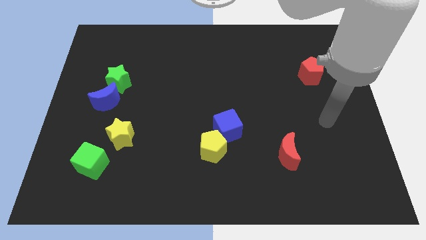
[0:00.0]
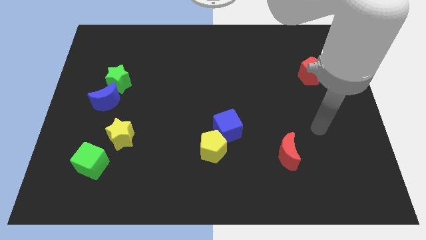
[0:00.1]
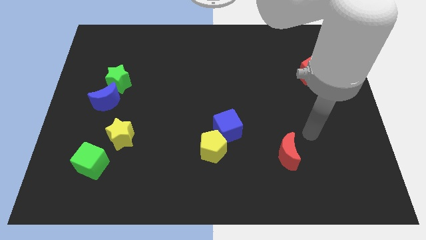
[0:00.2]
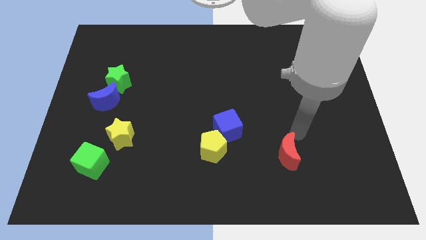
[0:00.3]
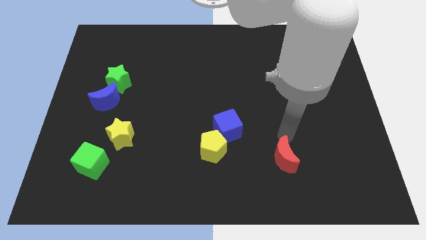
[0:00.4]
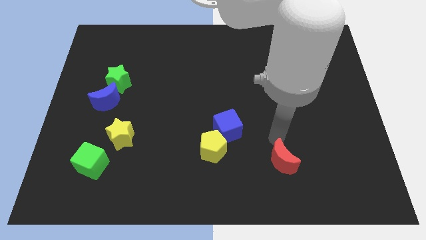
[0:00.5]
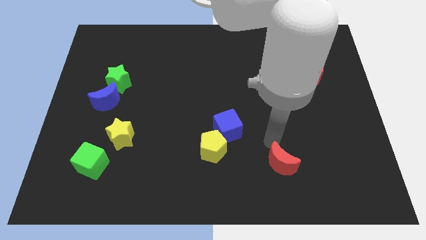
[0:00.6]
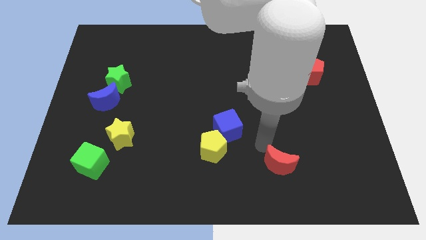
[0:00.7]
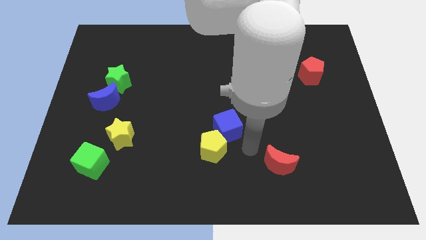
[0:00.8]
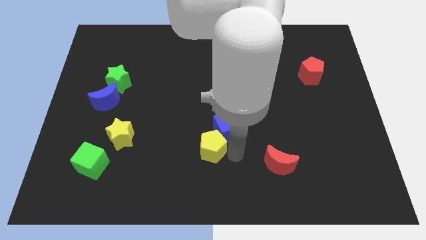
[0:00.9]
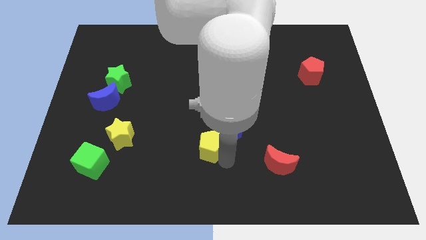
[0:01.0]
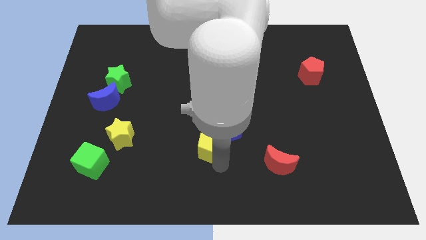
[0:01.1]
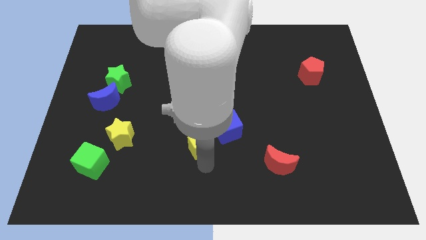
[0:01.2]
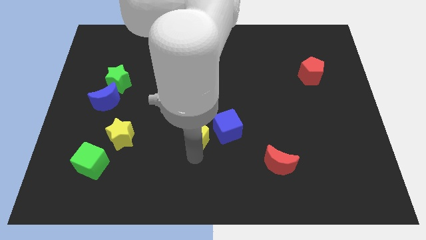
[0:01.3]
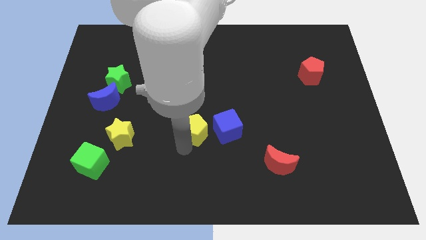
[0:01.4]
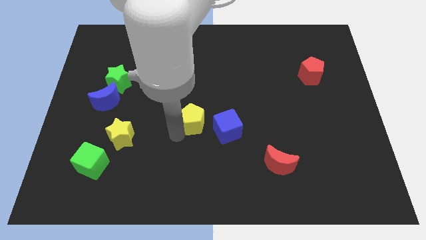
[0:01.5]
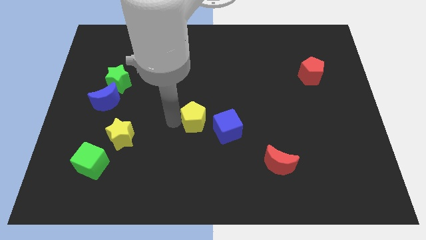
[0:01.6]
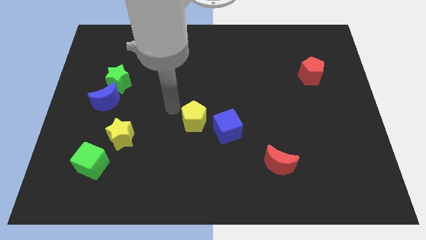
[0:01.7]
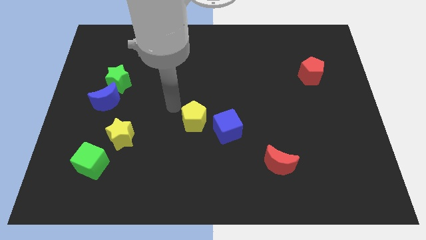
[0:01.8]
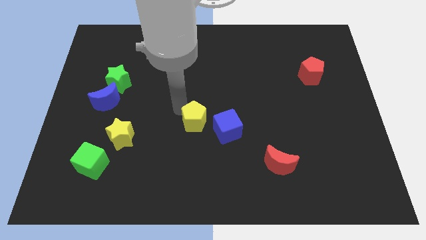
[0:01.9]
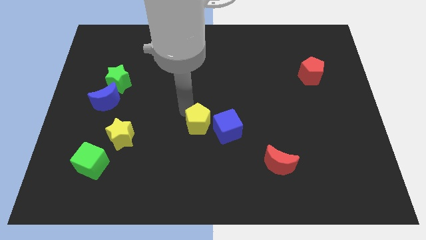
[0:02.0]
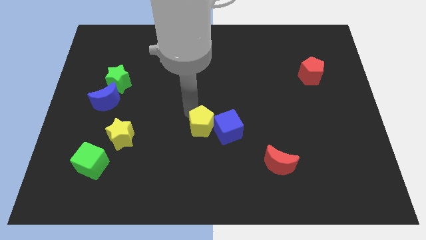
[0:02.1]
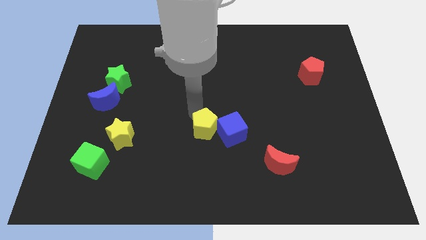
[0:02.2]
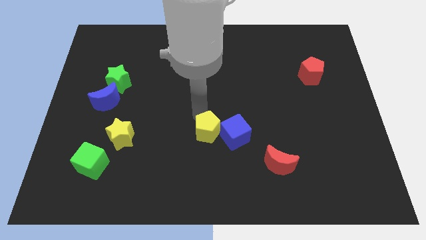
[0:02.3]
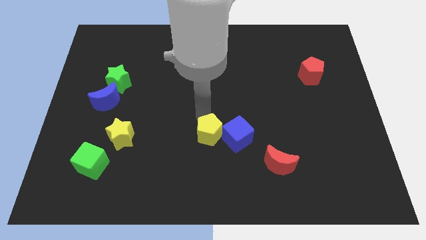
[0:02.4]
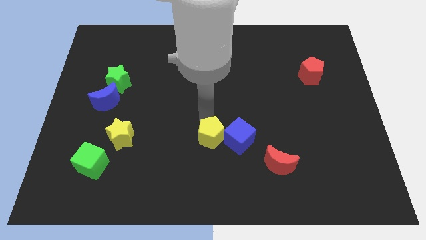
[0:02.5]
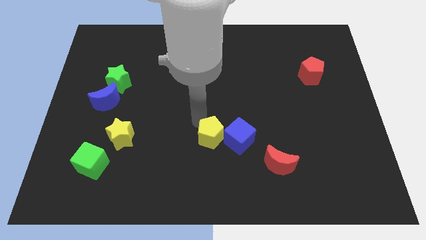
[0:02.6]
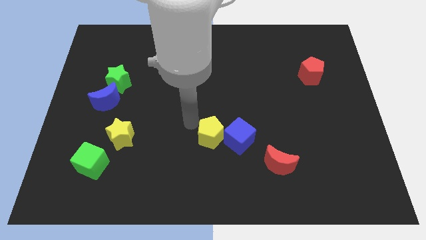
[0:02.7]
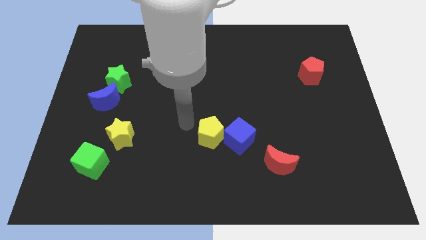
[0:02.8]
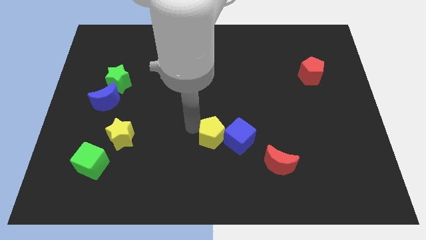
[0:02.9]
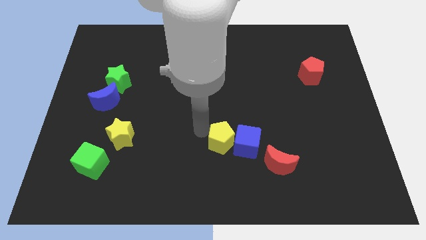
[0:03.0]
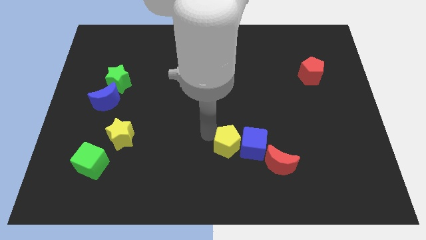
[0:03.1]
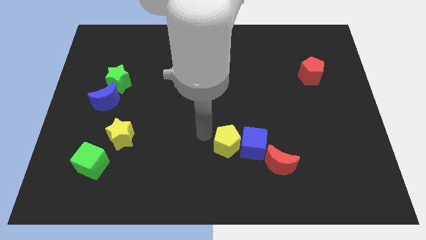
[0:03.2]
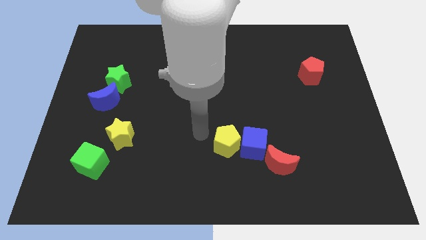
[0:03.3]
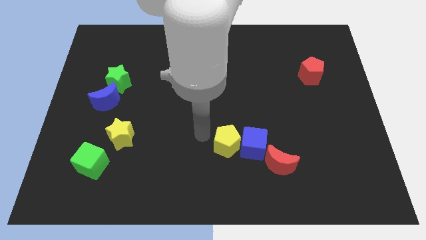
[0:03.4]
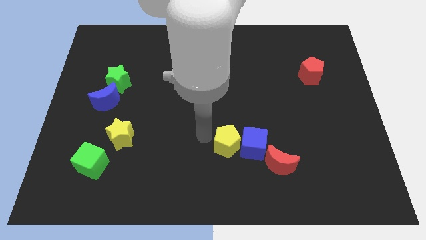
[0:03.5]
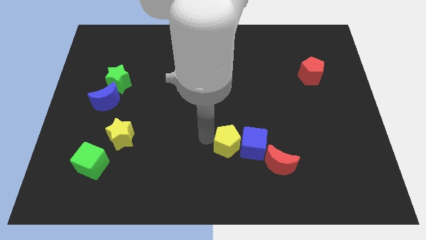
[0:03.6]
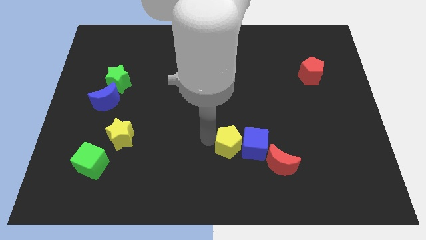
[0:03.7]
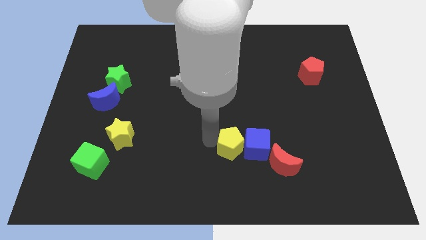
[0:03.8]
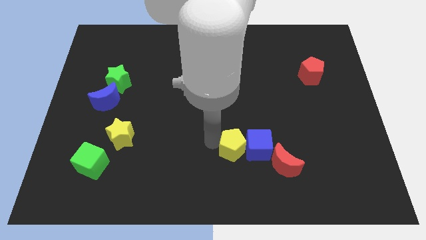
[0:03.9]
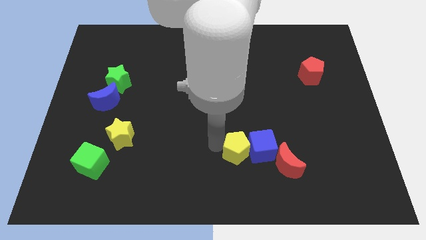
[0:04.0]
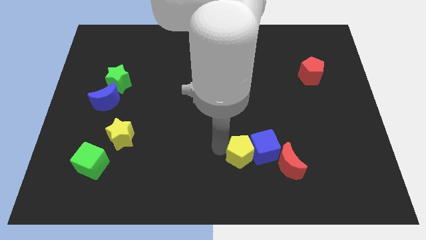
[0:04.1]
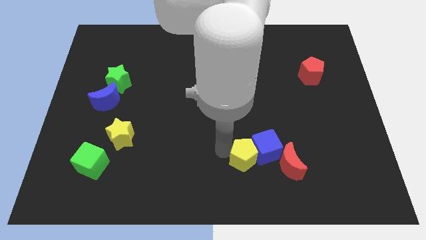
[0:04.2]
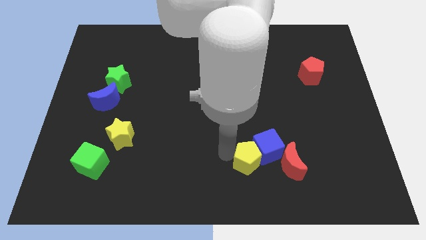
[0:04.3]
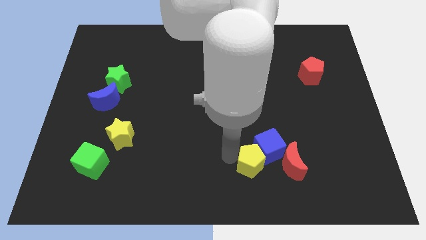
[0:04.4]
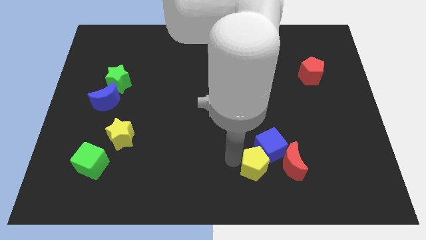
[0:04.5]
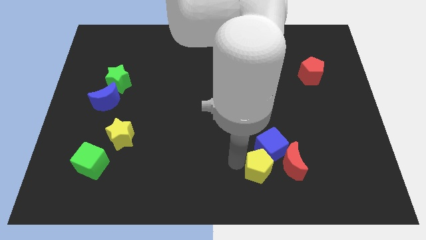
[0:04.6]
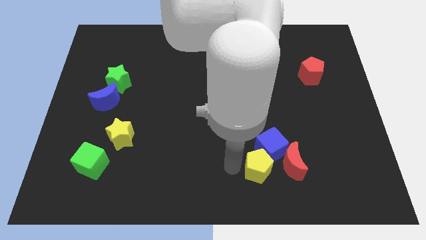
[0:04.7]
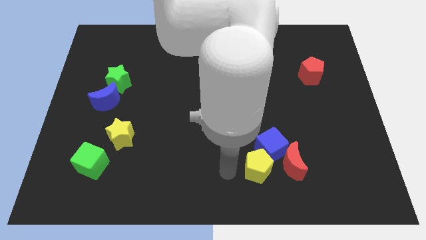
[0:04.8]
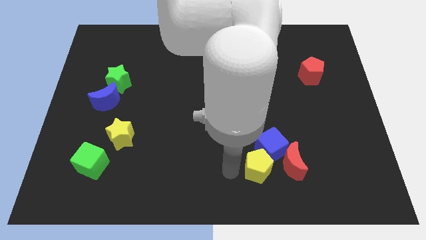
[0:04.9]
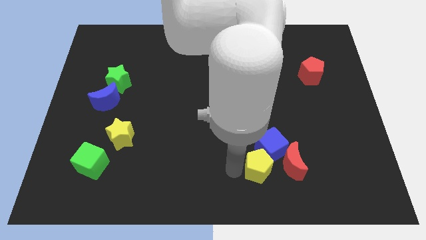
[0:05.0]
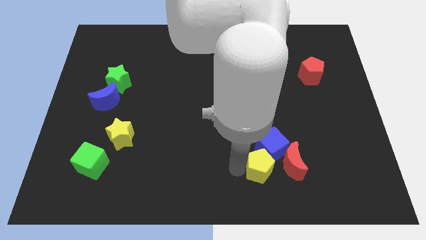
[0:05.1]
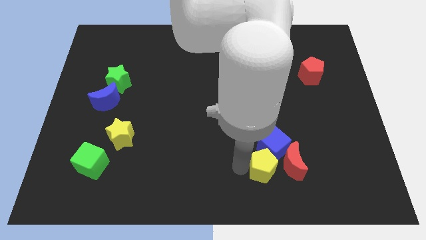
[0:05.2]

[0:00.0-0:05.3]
put the yellow pentagon to the red moon

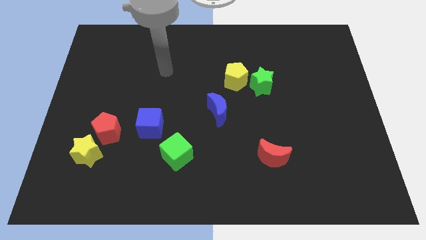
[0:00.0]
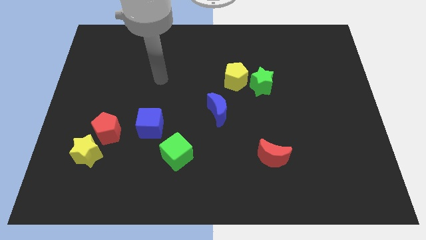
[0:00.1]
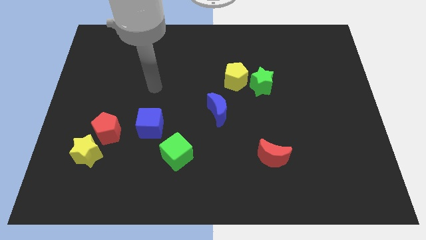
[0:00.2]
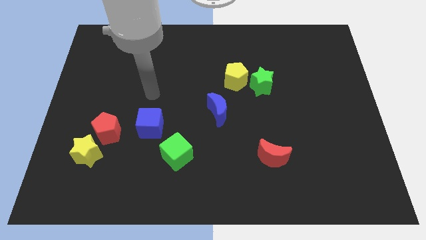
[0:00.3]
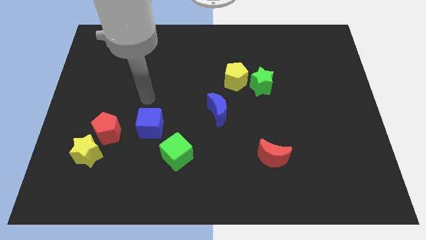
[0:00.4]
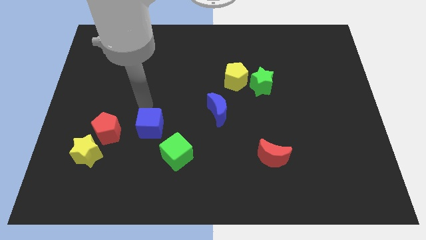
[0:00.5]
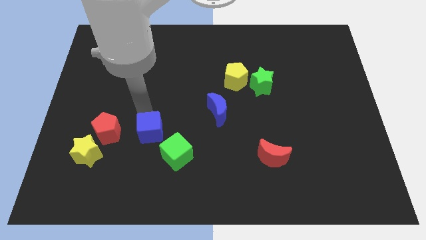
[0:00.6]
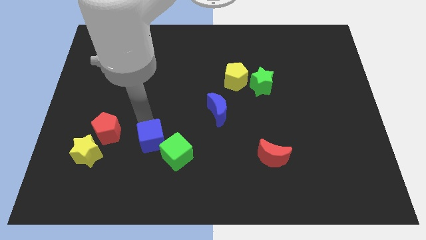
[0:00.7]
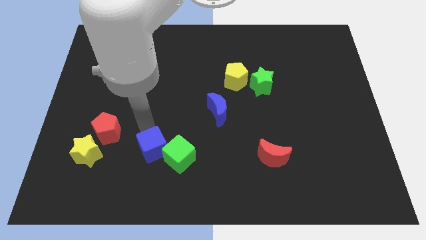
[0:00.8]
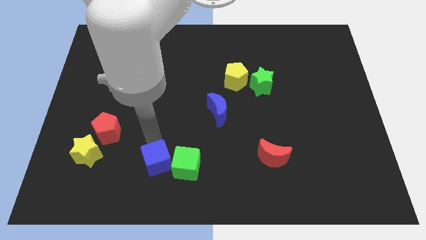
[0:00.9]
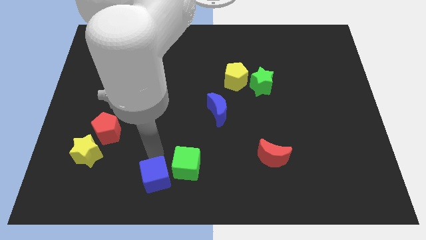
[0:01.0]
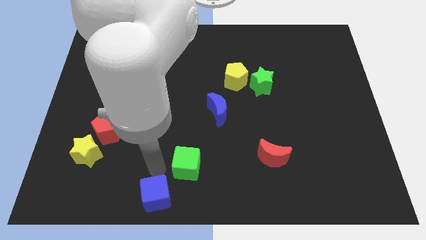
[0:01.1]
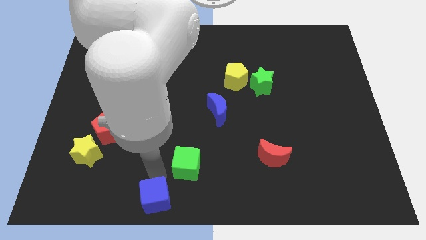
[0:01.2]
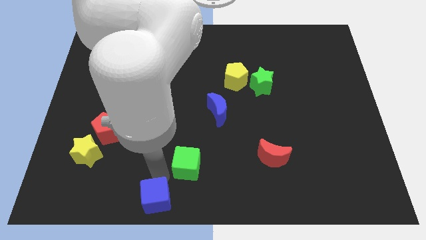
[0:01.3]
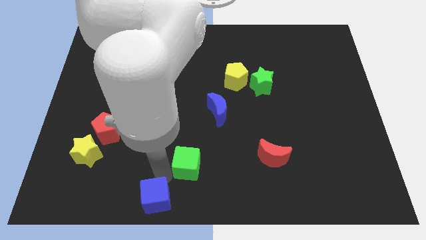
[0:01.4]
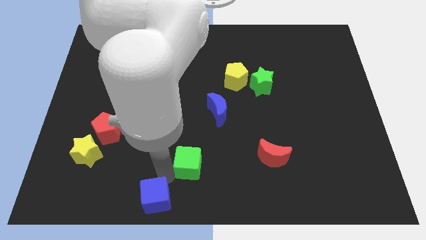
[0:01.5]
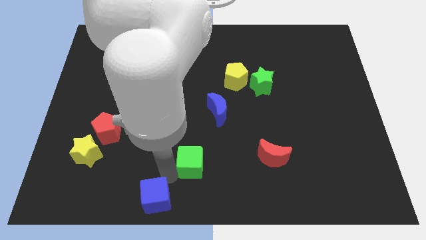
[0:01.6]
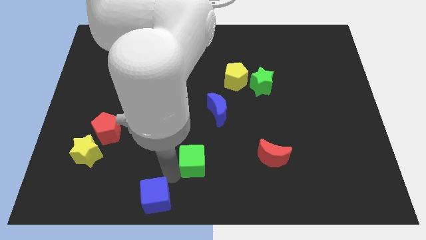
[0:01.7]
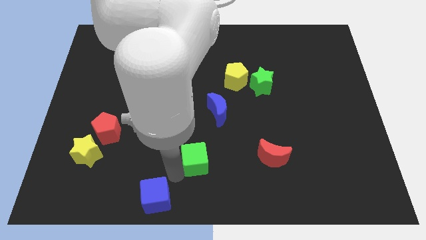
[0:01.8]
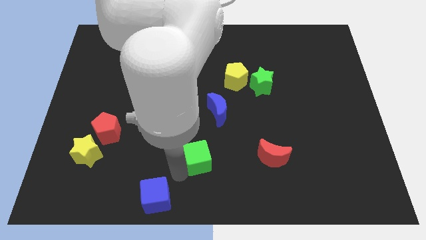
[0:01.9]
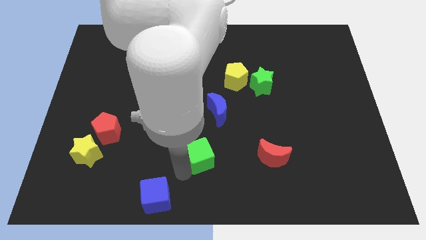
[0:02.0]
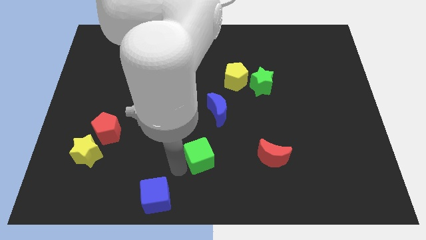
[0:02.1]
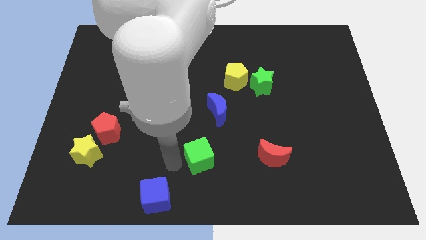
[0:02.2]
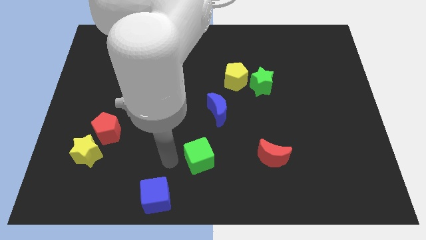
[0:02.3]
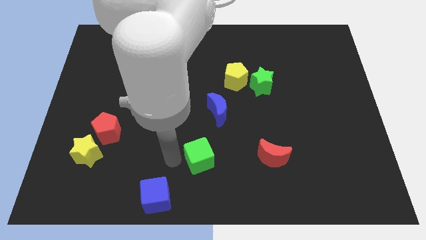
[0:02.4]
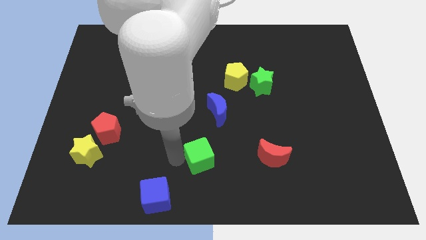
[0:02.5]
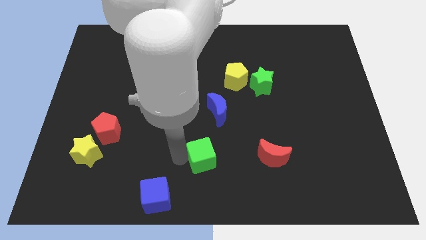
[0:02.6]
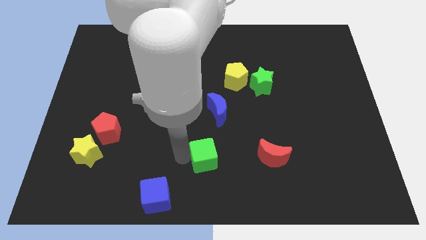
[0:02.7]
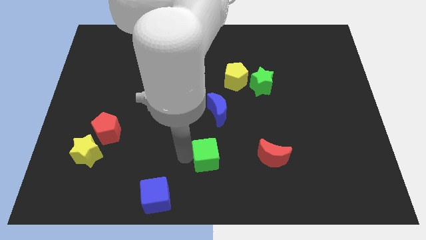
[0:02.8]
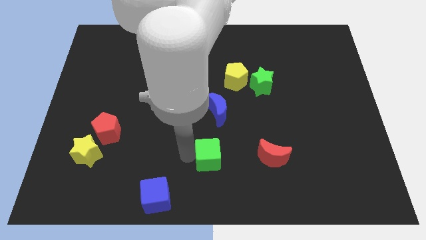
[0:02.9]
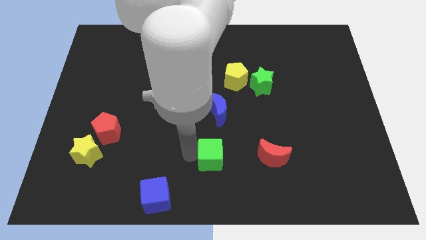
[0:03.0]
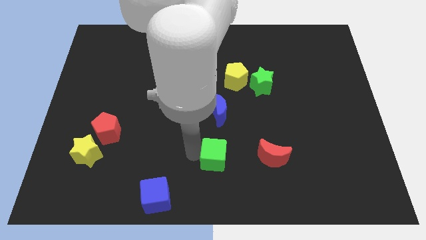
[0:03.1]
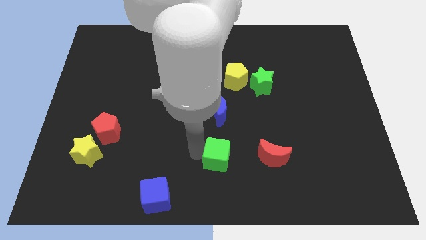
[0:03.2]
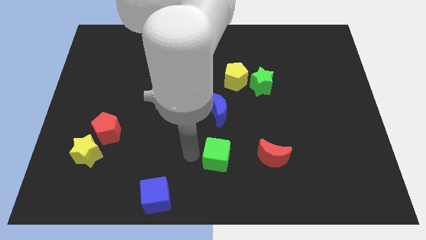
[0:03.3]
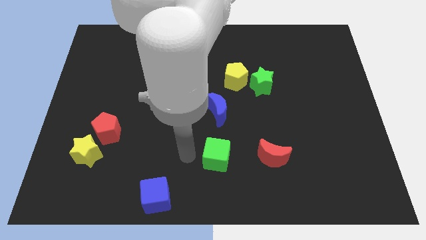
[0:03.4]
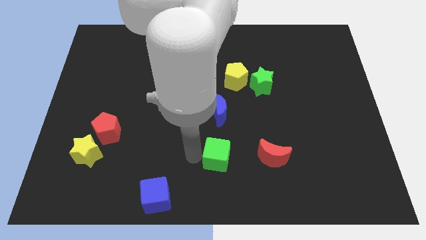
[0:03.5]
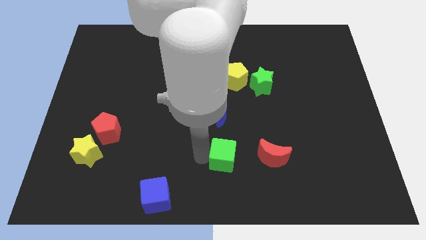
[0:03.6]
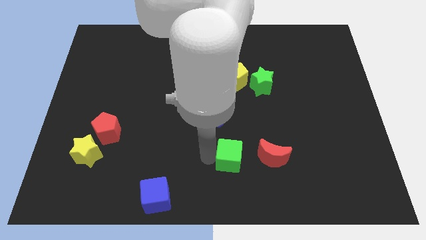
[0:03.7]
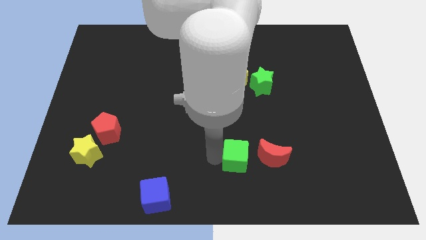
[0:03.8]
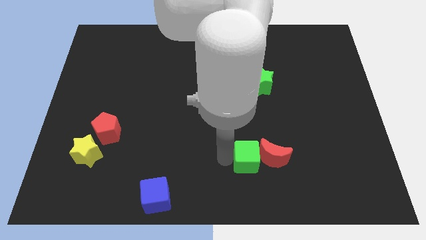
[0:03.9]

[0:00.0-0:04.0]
move the green cube next to the red moon
